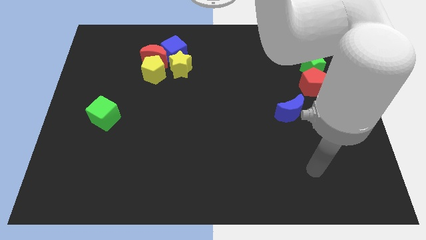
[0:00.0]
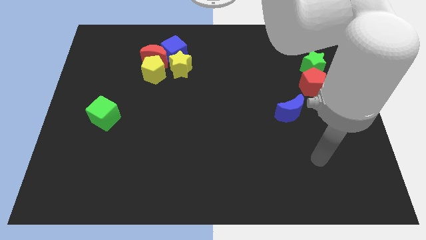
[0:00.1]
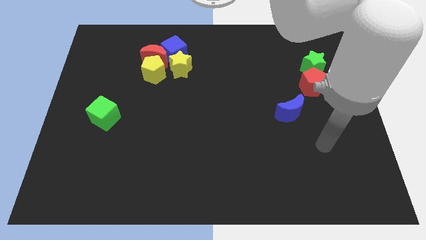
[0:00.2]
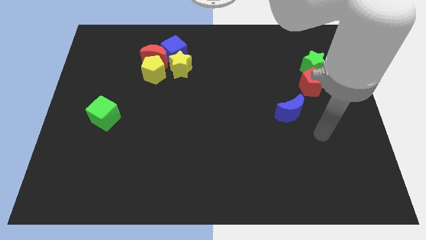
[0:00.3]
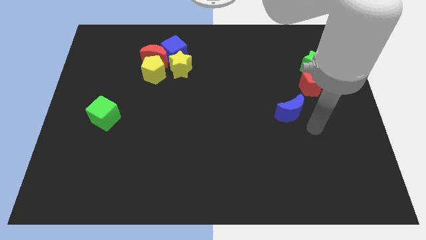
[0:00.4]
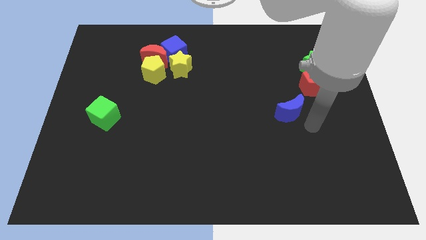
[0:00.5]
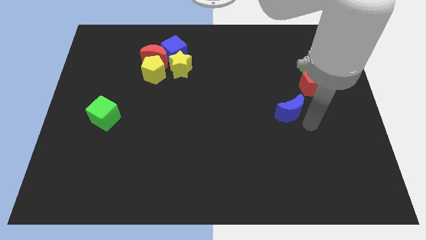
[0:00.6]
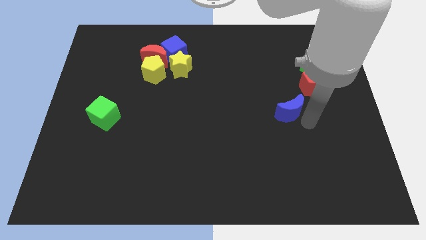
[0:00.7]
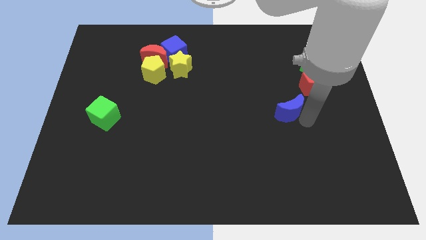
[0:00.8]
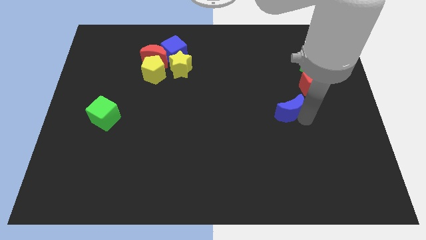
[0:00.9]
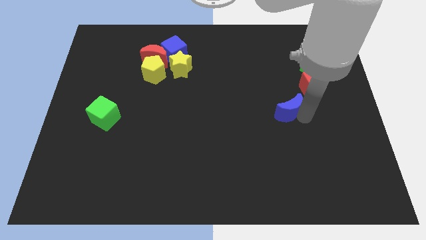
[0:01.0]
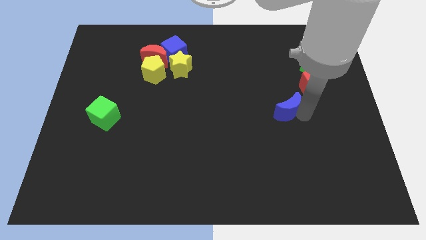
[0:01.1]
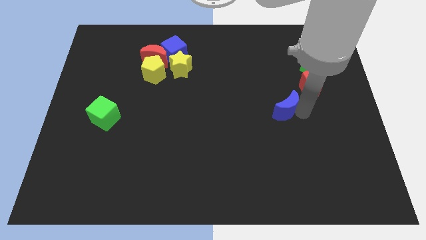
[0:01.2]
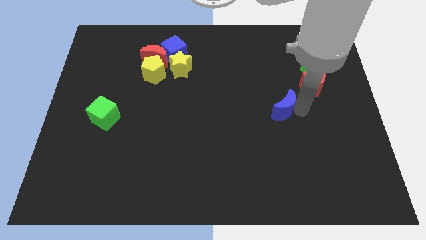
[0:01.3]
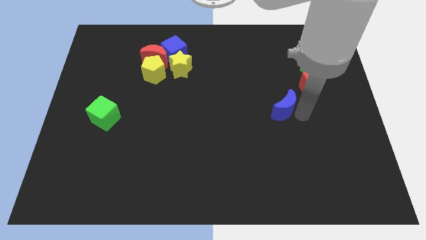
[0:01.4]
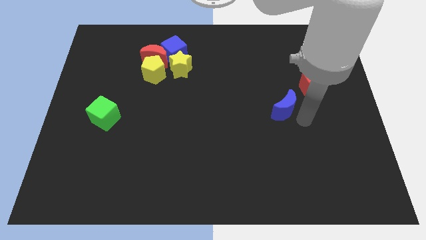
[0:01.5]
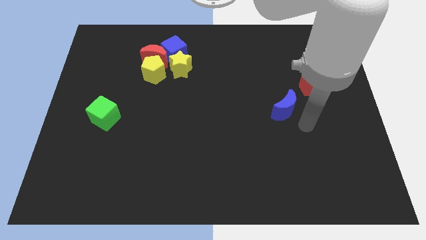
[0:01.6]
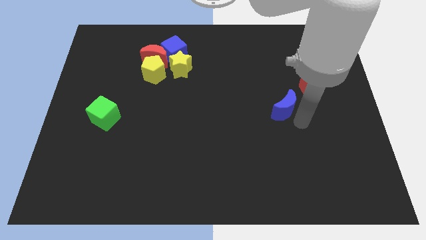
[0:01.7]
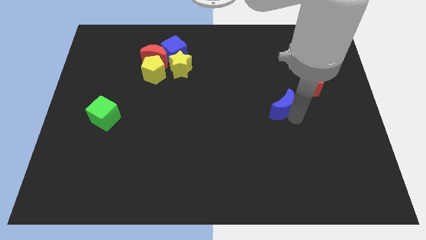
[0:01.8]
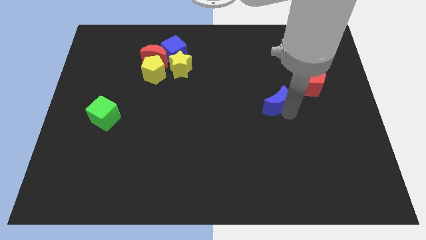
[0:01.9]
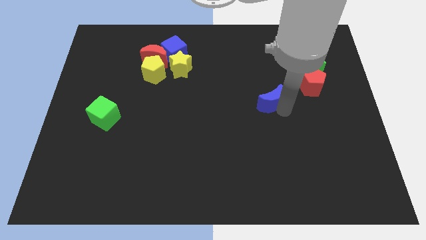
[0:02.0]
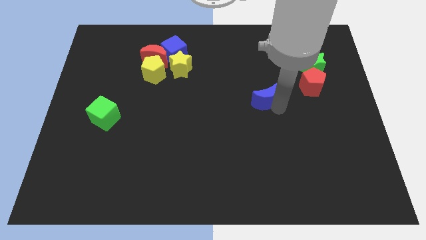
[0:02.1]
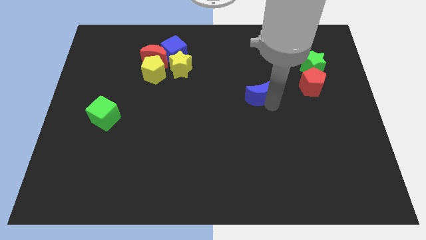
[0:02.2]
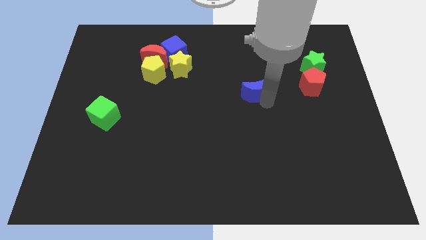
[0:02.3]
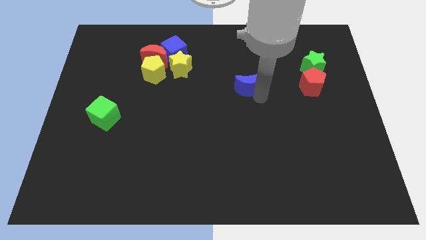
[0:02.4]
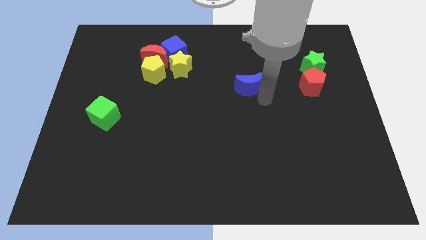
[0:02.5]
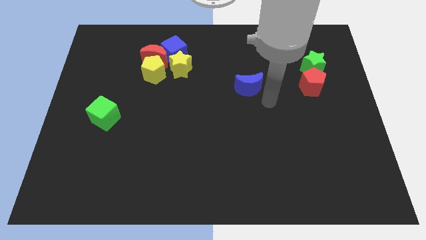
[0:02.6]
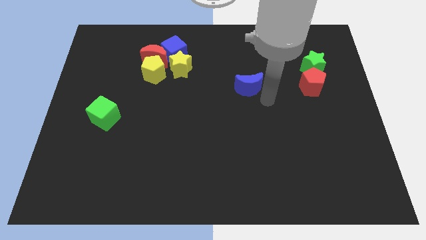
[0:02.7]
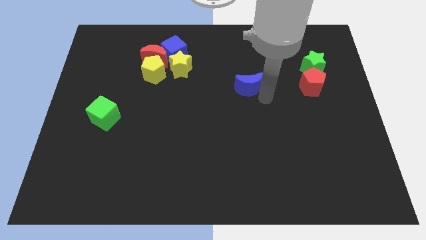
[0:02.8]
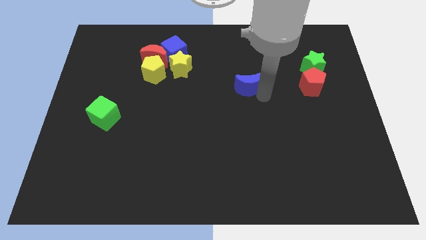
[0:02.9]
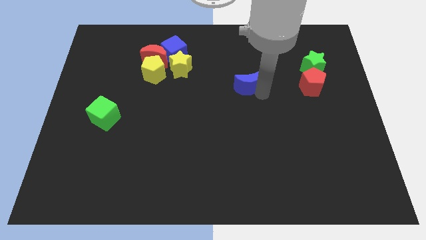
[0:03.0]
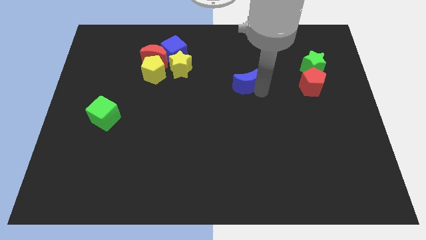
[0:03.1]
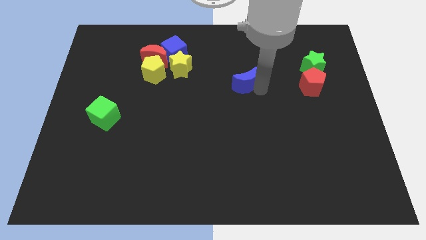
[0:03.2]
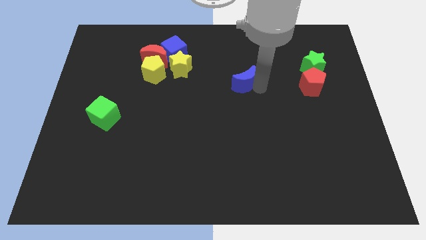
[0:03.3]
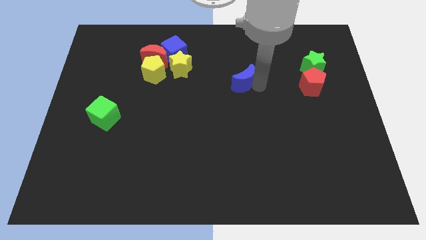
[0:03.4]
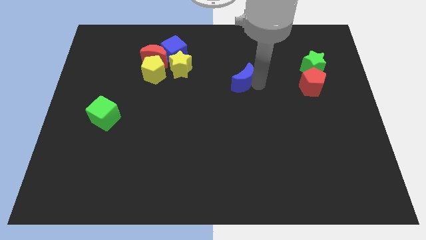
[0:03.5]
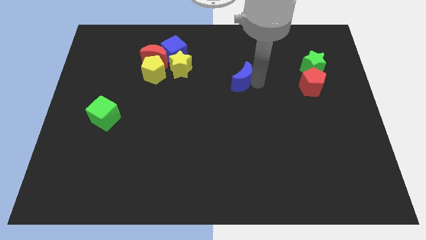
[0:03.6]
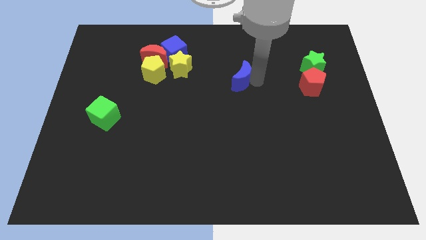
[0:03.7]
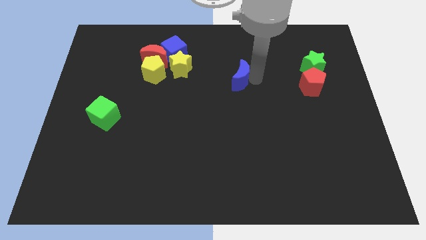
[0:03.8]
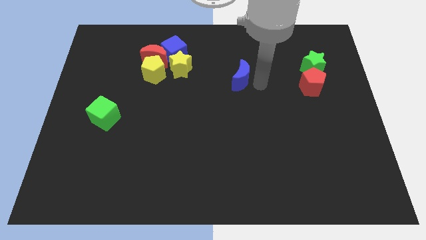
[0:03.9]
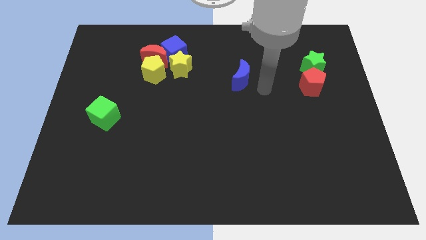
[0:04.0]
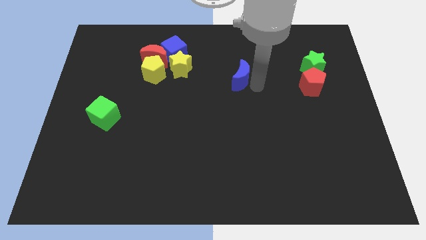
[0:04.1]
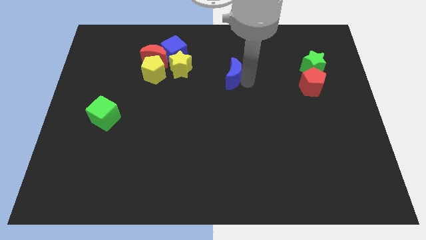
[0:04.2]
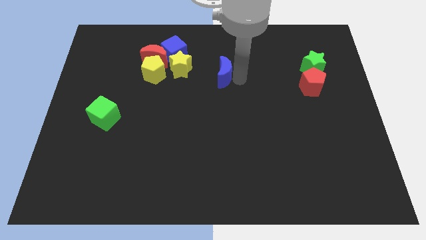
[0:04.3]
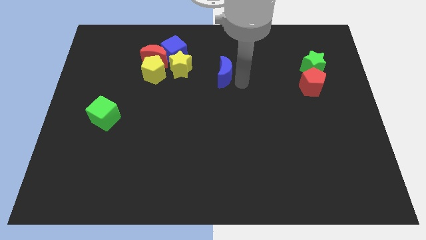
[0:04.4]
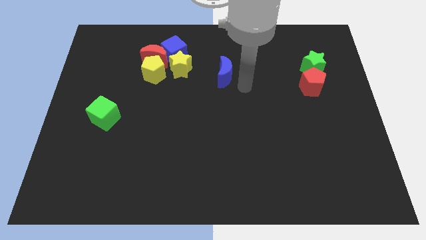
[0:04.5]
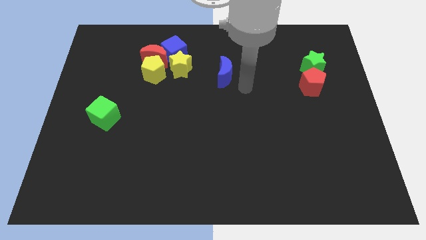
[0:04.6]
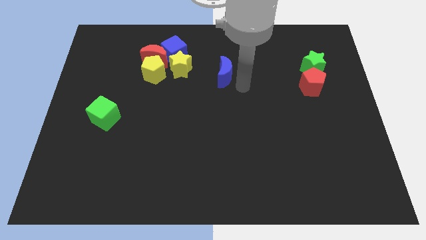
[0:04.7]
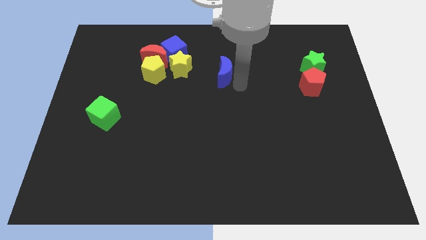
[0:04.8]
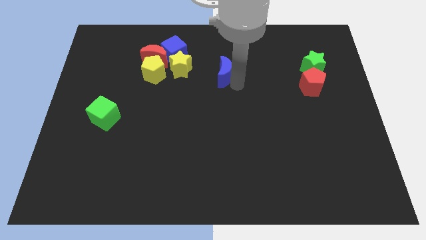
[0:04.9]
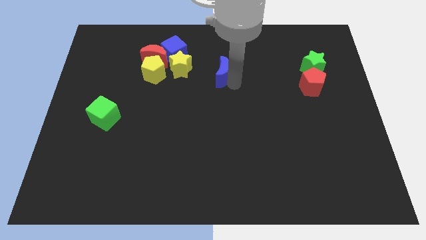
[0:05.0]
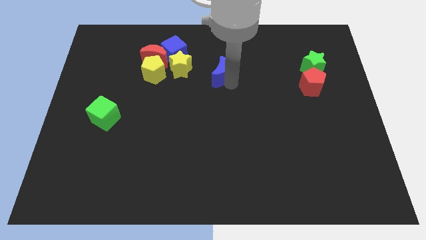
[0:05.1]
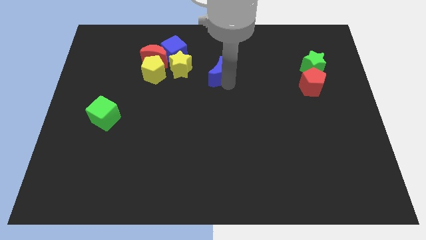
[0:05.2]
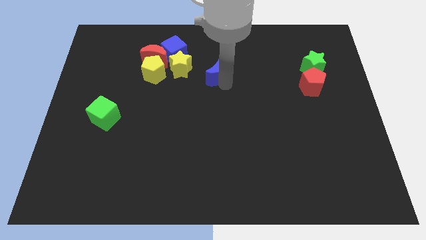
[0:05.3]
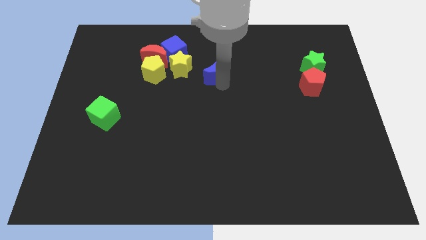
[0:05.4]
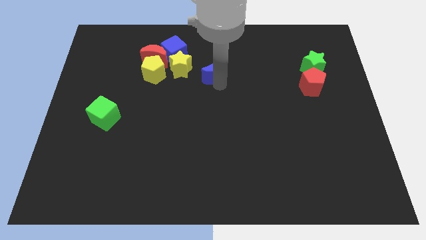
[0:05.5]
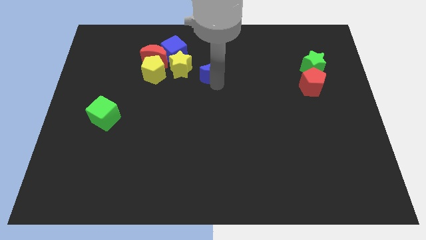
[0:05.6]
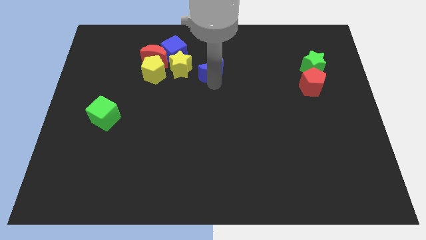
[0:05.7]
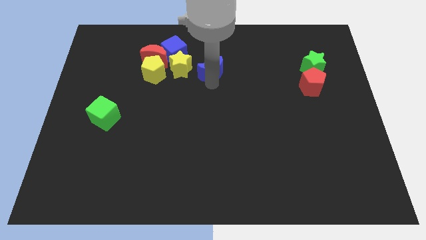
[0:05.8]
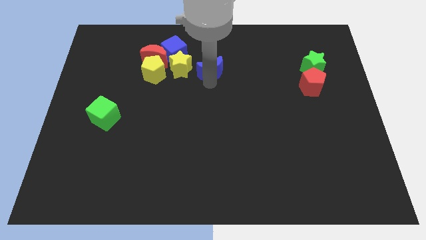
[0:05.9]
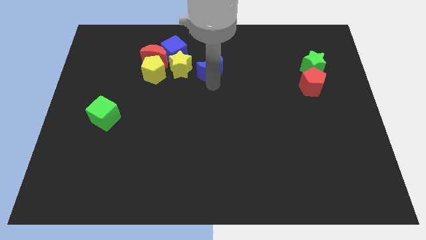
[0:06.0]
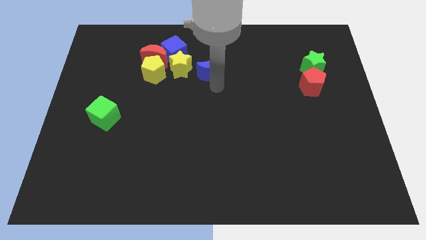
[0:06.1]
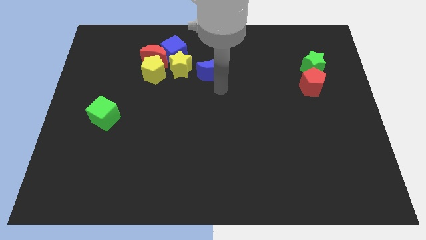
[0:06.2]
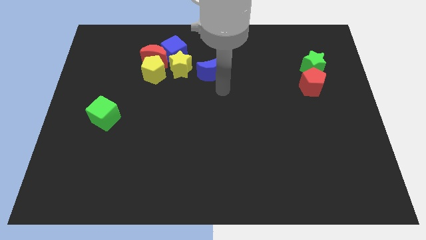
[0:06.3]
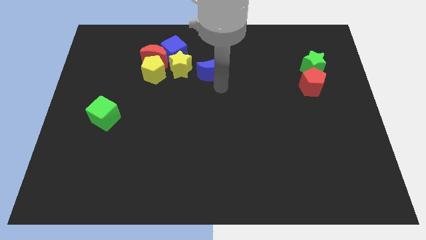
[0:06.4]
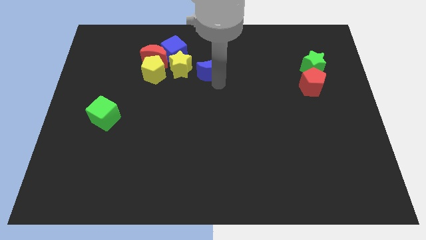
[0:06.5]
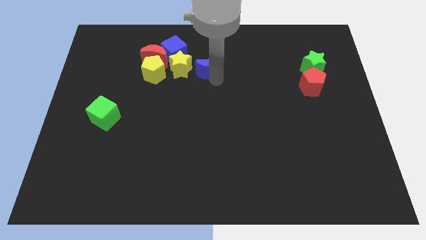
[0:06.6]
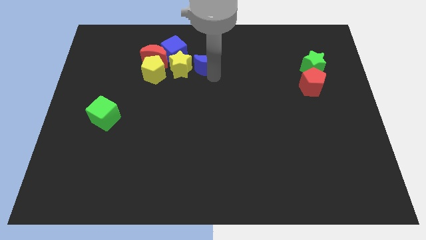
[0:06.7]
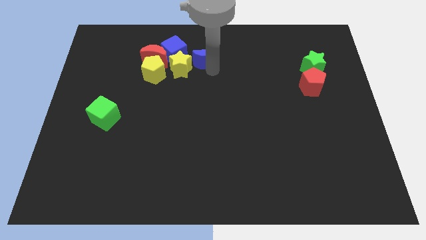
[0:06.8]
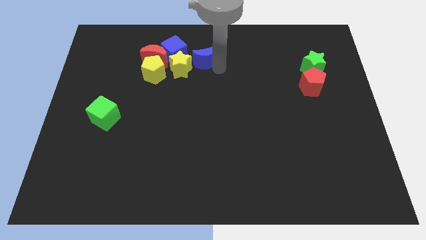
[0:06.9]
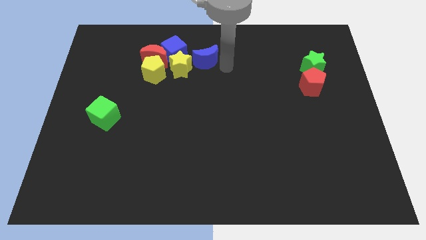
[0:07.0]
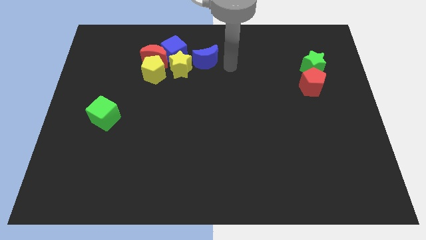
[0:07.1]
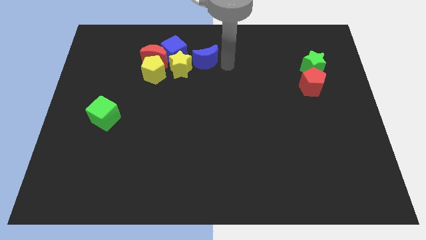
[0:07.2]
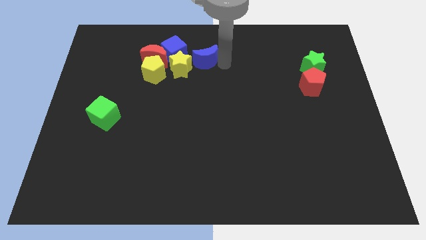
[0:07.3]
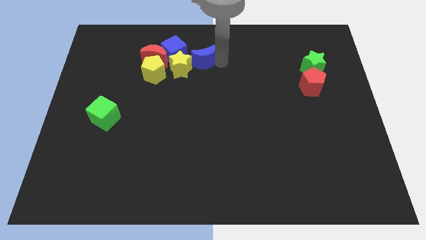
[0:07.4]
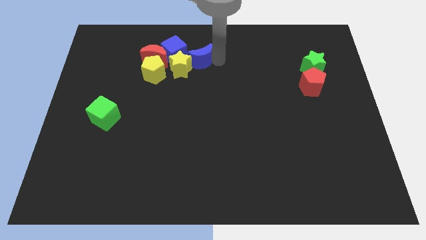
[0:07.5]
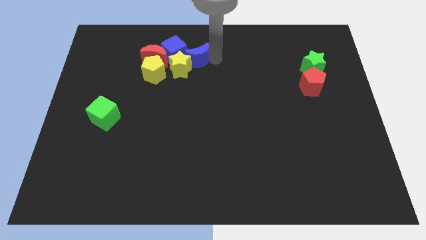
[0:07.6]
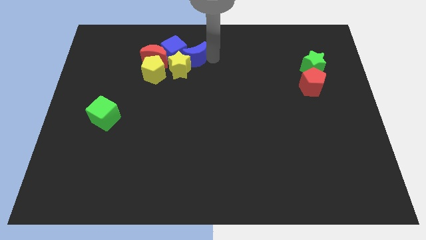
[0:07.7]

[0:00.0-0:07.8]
put the blue moon to the blue cube
